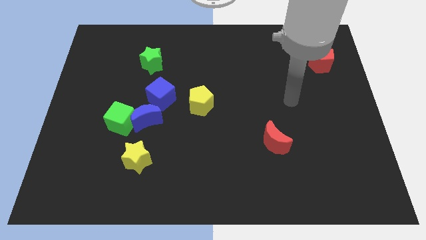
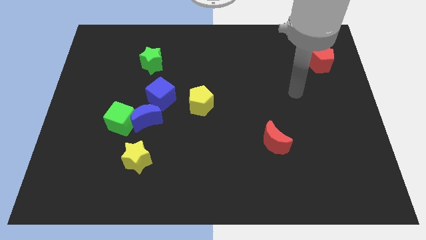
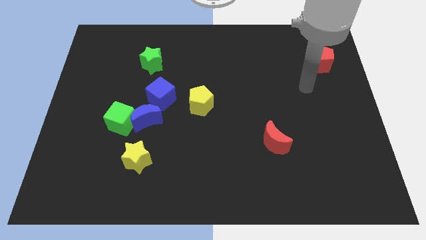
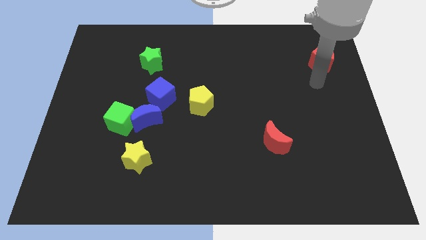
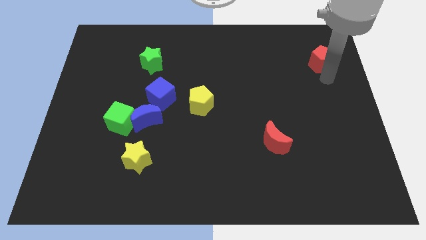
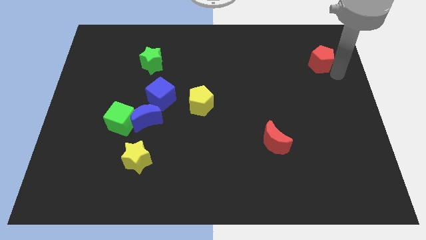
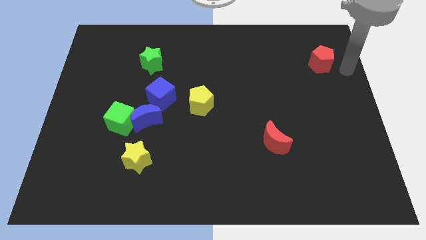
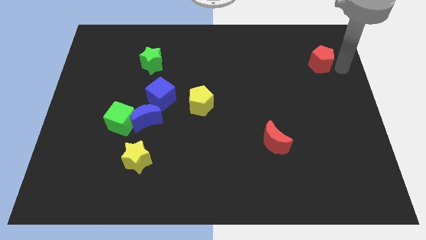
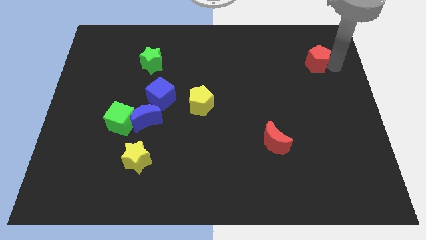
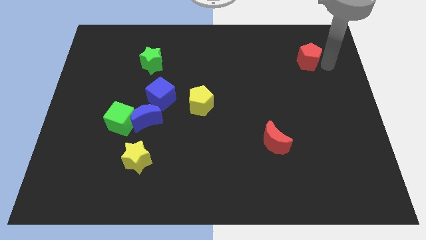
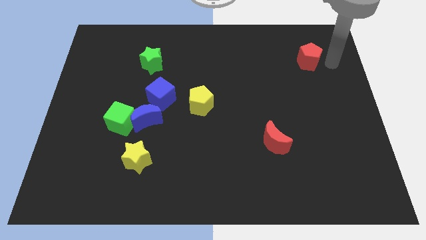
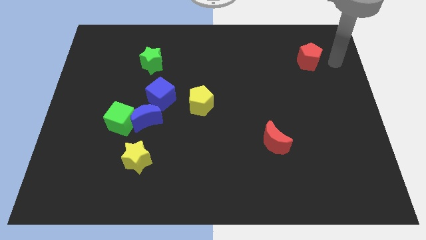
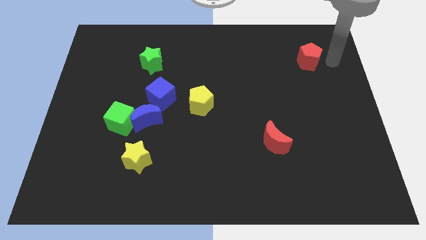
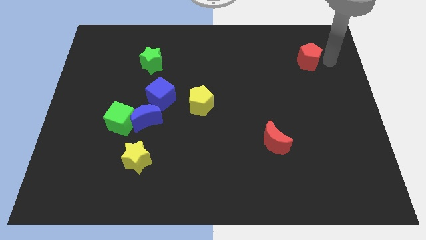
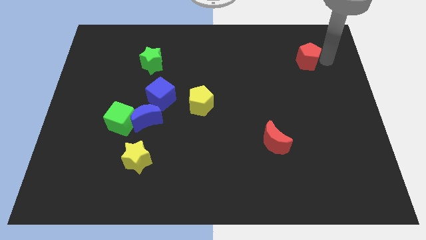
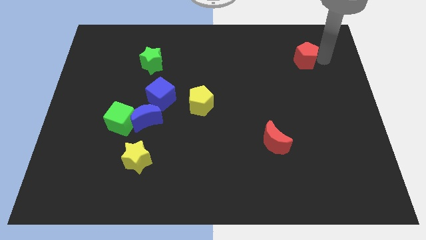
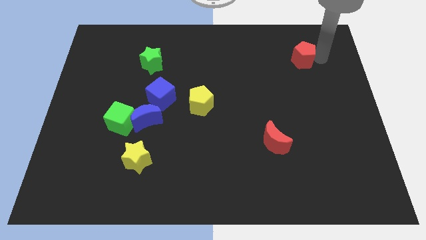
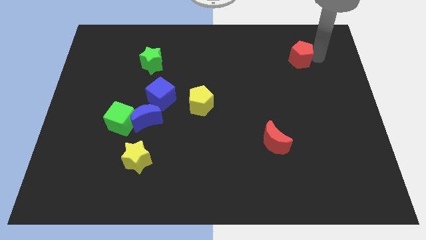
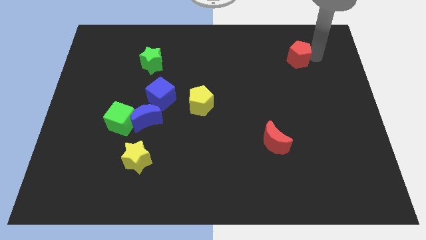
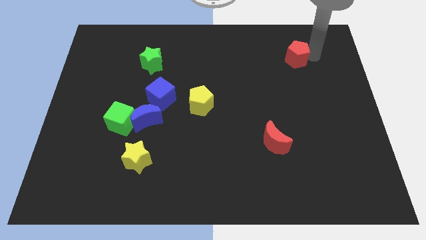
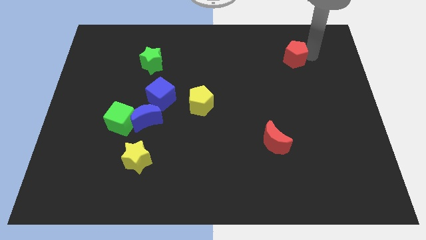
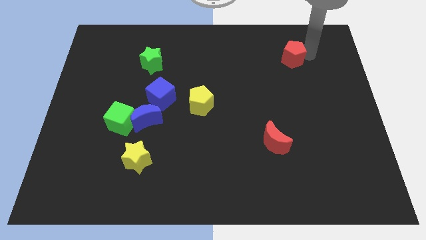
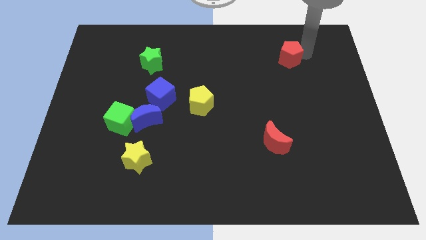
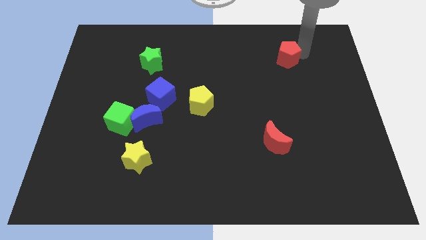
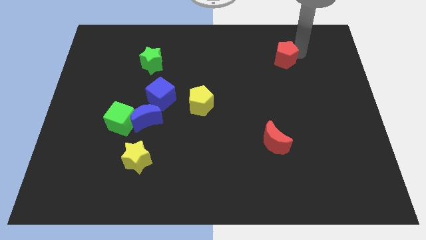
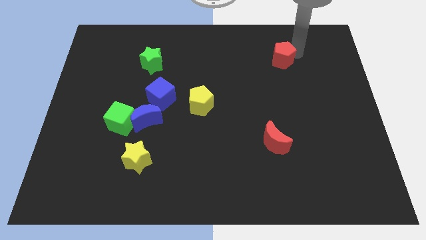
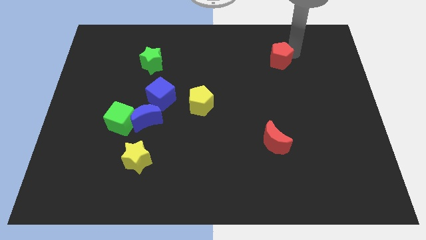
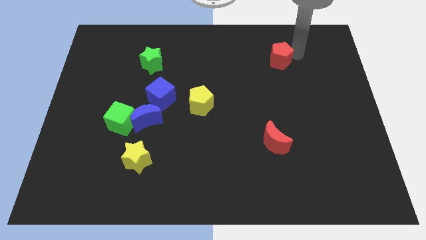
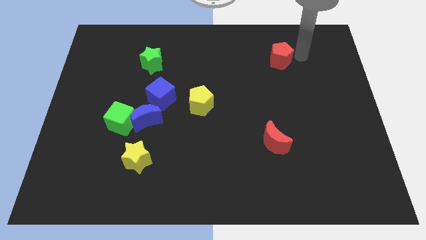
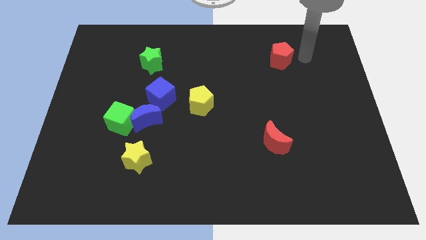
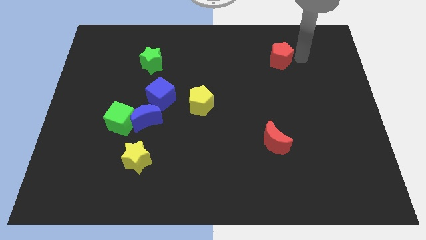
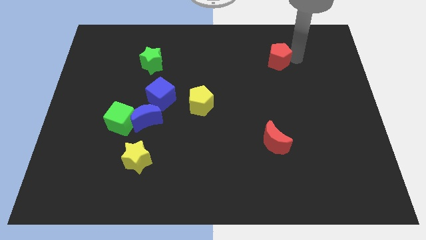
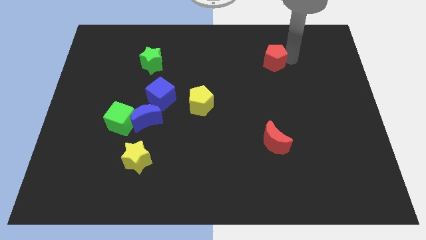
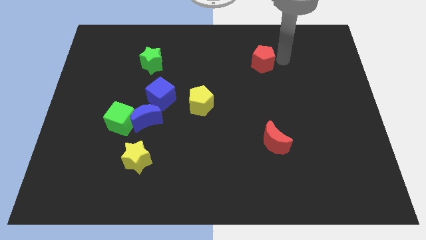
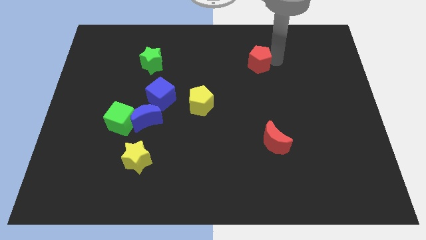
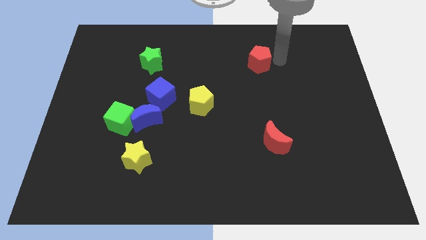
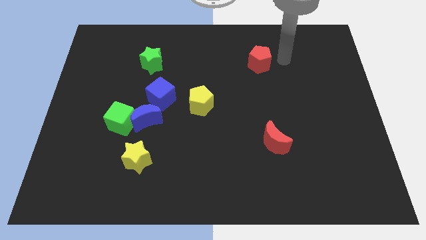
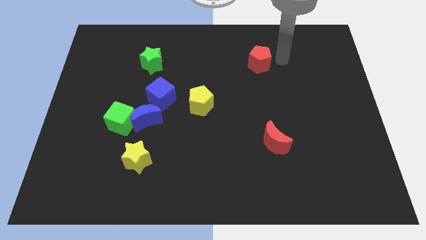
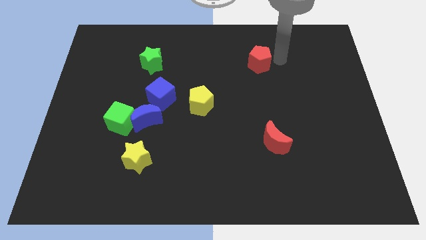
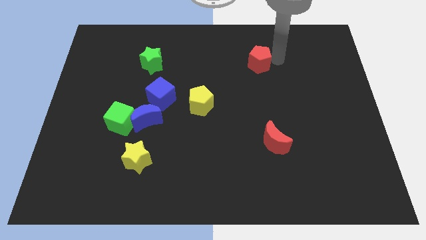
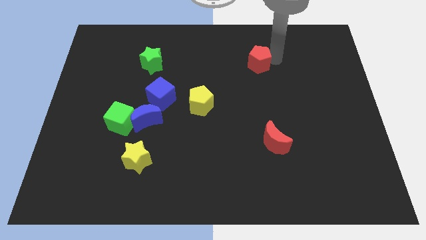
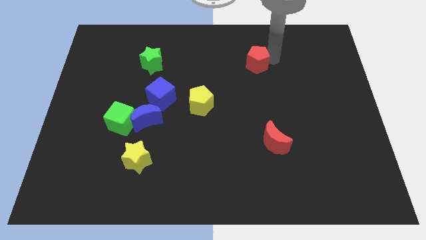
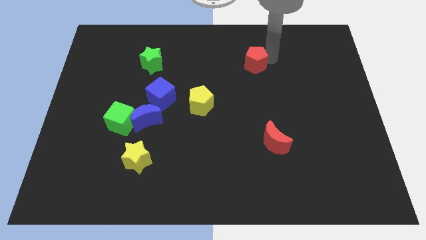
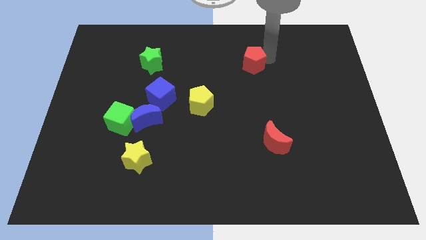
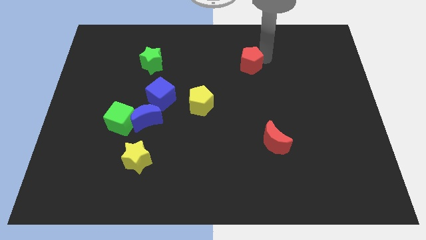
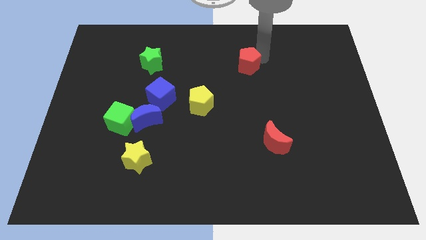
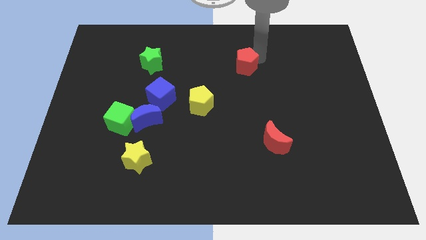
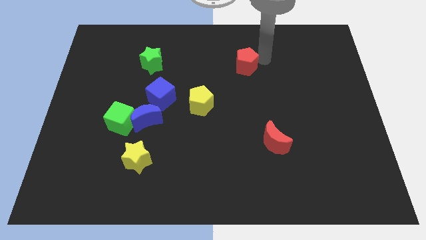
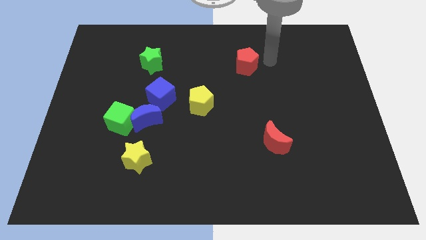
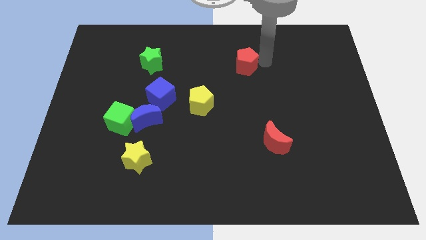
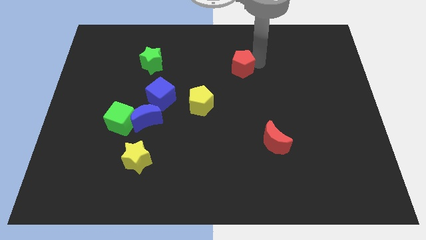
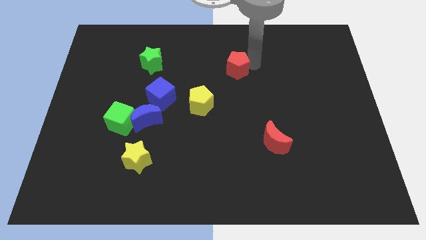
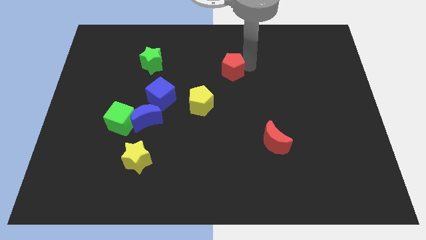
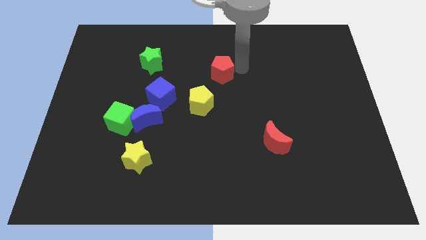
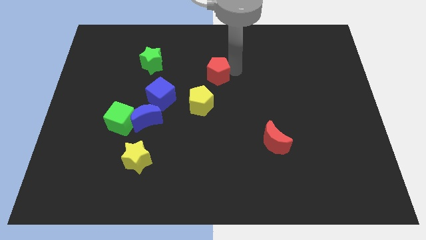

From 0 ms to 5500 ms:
move the red pentagon to the top side of the yellow pentagon
